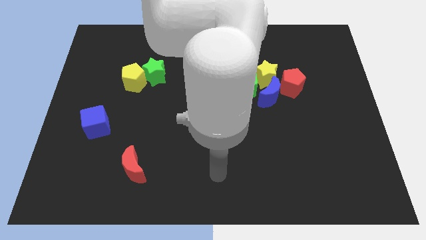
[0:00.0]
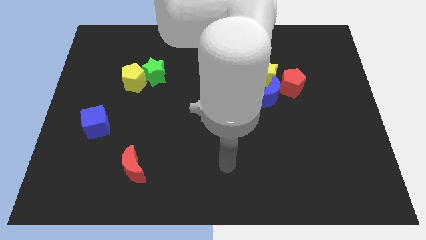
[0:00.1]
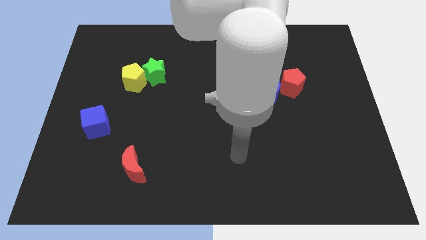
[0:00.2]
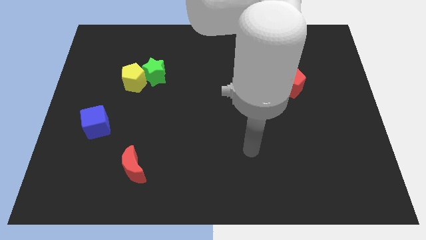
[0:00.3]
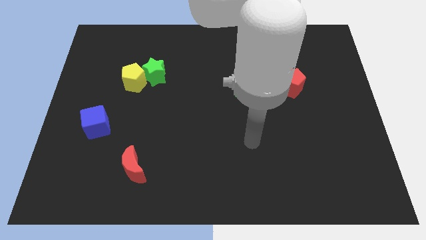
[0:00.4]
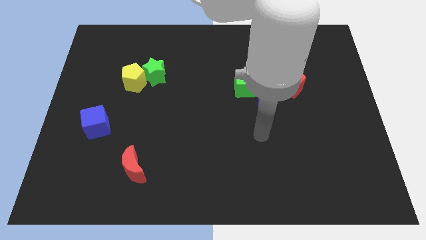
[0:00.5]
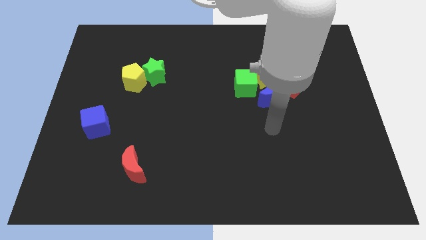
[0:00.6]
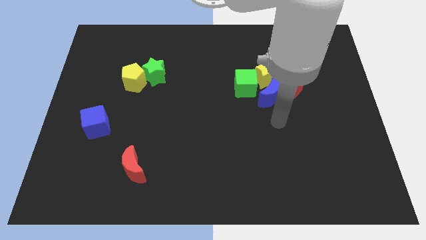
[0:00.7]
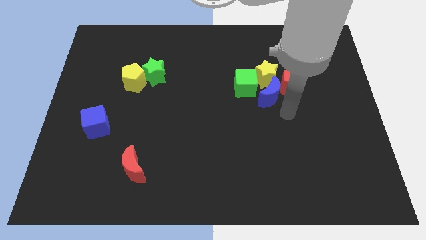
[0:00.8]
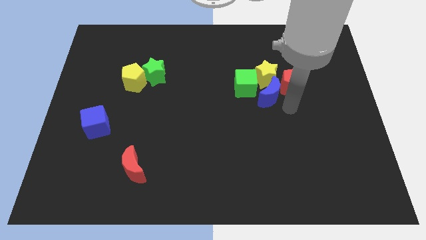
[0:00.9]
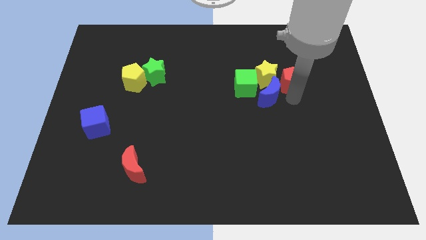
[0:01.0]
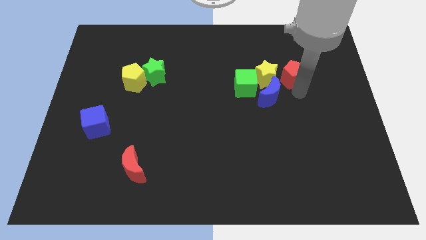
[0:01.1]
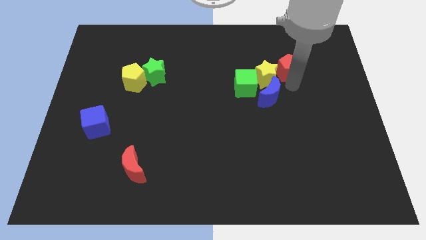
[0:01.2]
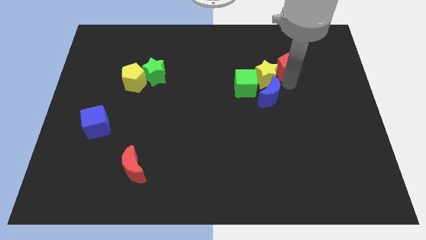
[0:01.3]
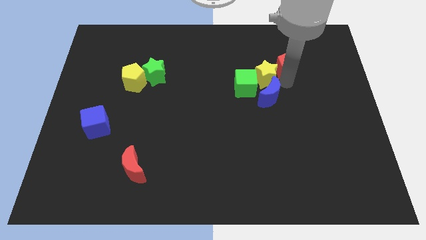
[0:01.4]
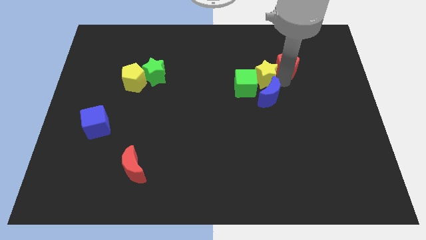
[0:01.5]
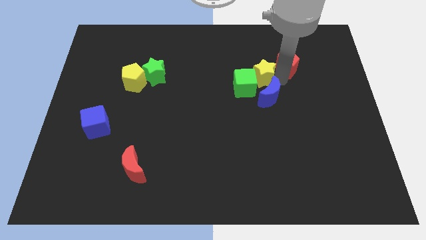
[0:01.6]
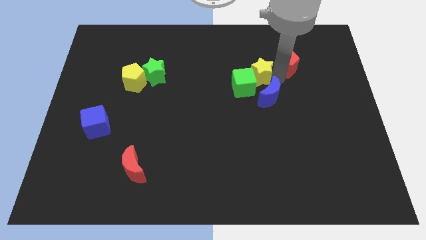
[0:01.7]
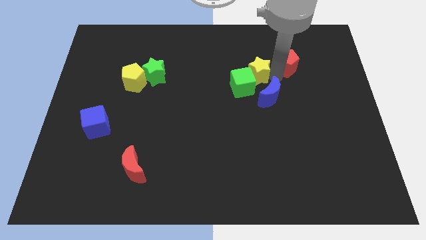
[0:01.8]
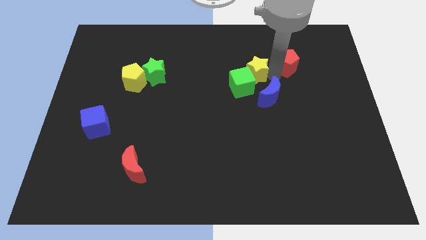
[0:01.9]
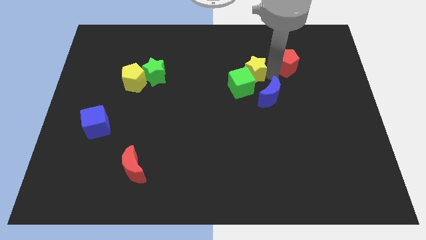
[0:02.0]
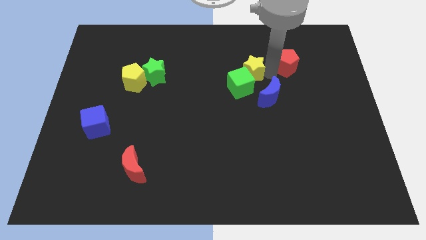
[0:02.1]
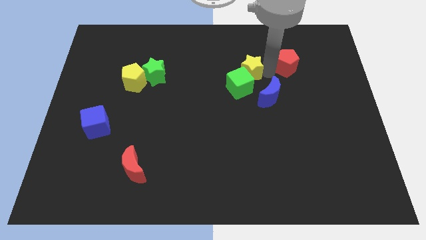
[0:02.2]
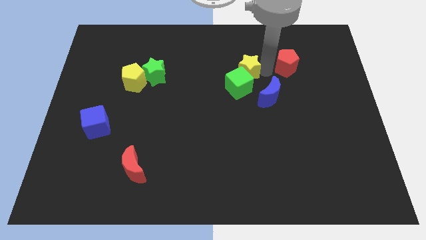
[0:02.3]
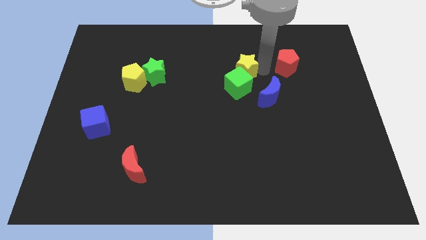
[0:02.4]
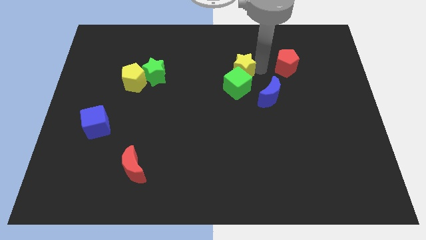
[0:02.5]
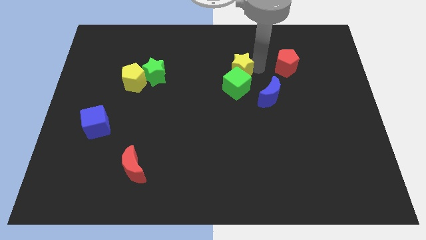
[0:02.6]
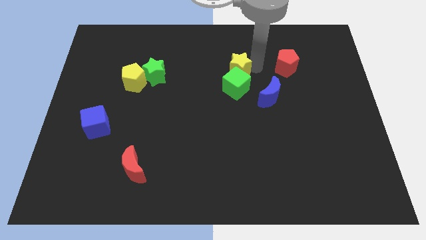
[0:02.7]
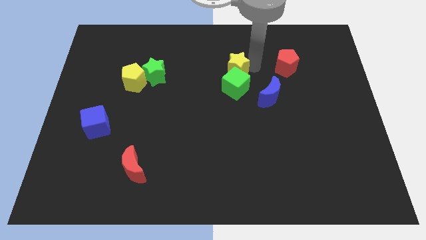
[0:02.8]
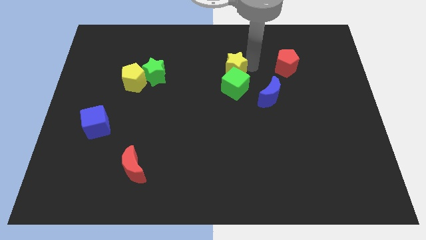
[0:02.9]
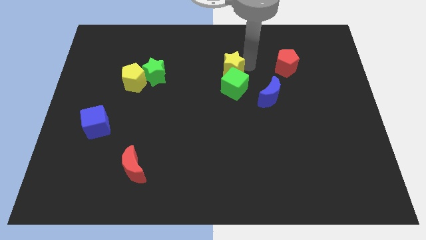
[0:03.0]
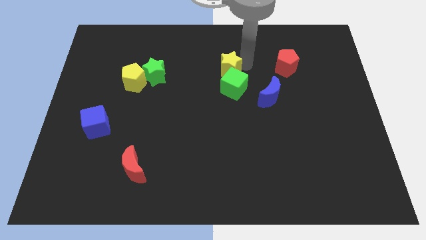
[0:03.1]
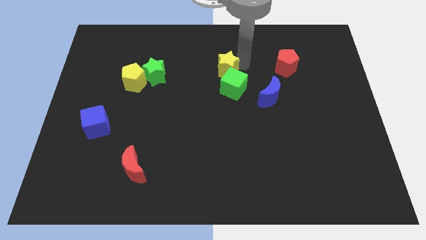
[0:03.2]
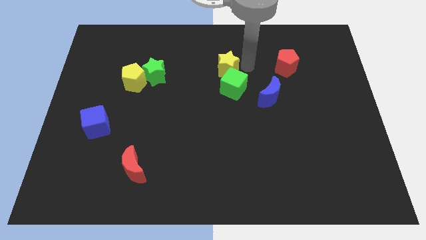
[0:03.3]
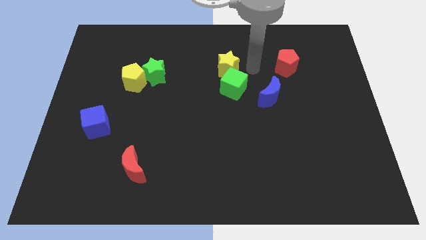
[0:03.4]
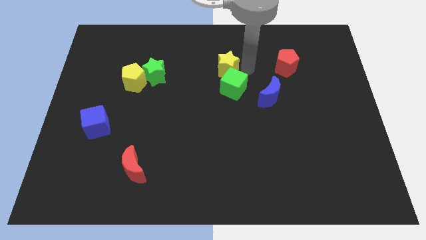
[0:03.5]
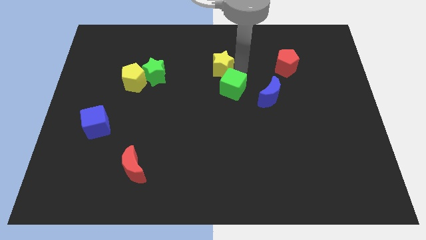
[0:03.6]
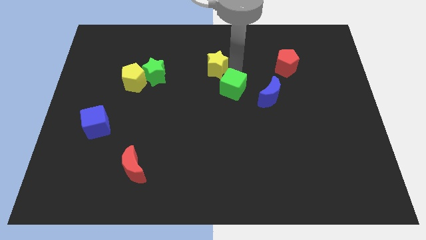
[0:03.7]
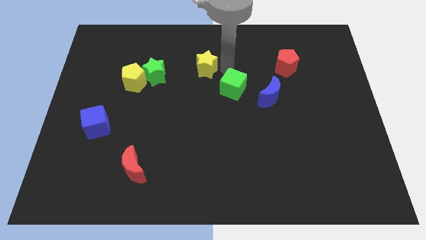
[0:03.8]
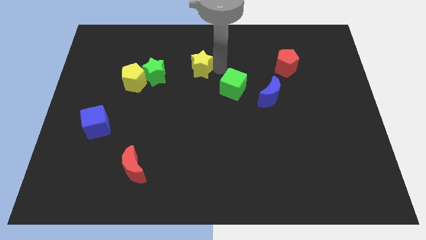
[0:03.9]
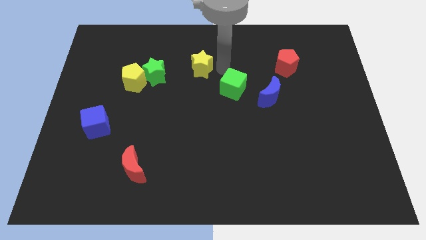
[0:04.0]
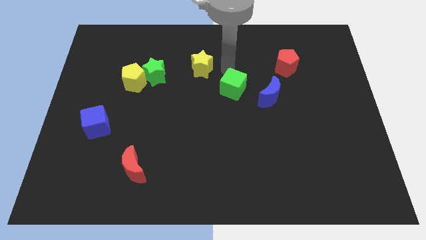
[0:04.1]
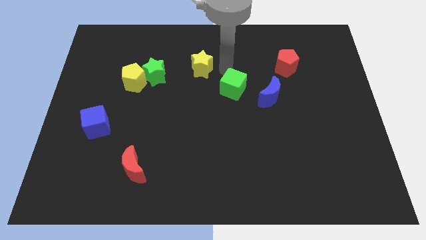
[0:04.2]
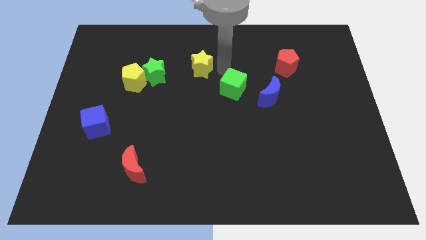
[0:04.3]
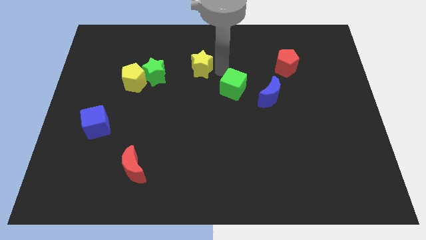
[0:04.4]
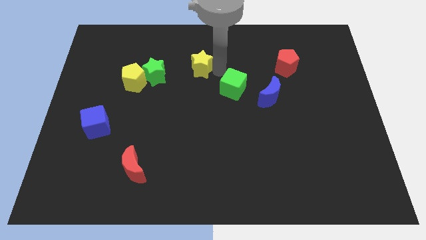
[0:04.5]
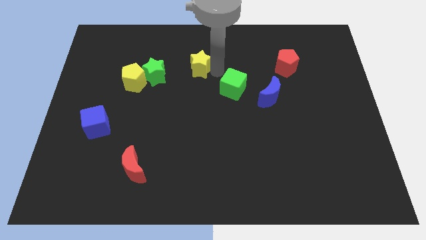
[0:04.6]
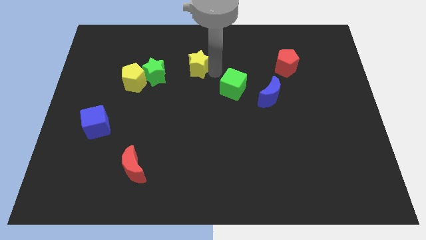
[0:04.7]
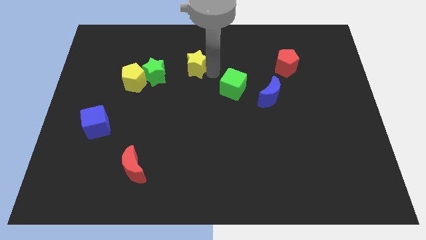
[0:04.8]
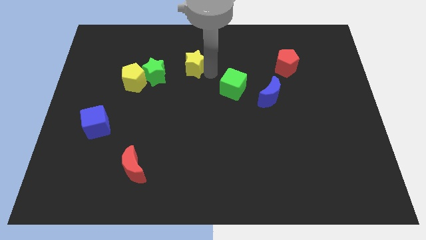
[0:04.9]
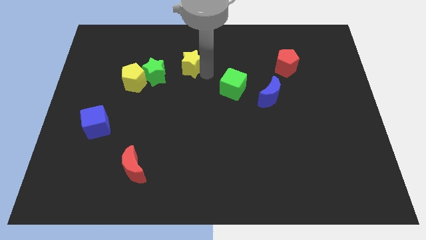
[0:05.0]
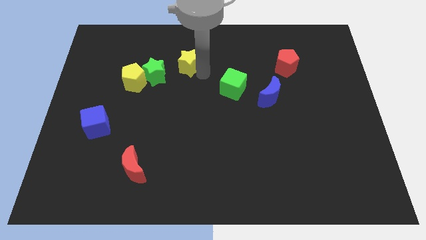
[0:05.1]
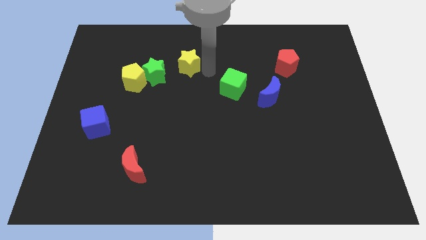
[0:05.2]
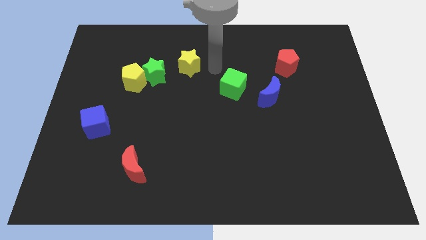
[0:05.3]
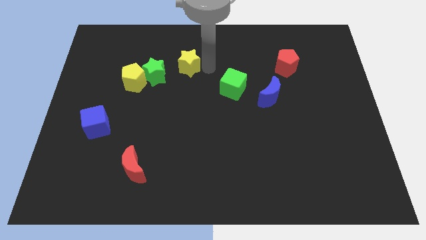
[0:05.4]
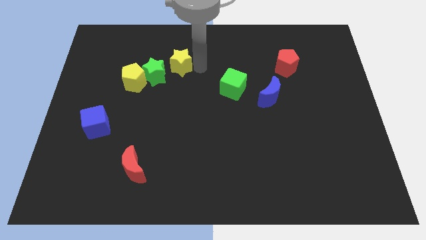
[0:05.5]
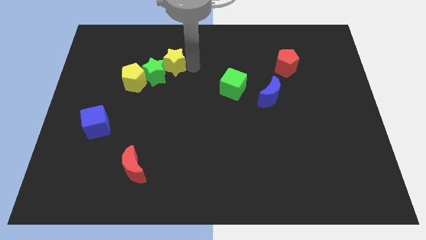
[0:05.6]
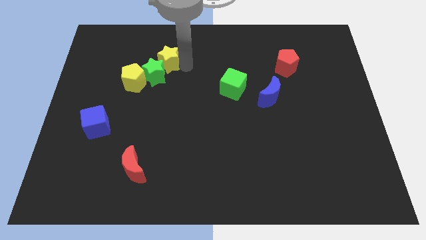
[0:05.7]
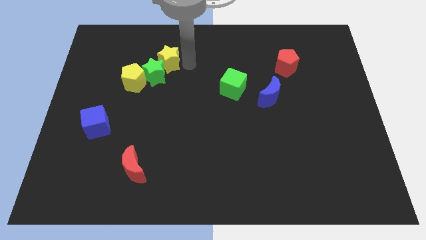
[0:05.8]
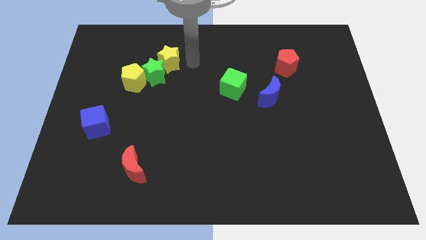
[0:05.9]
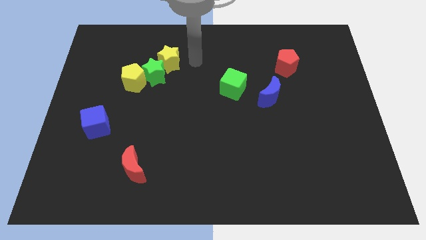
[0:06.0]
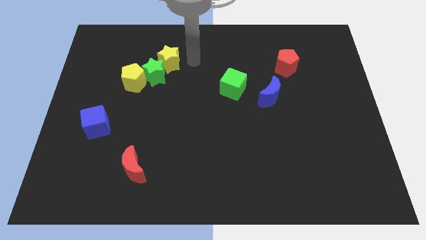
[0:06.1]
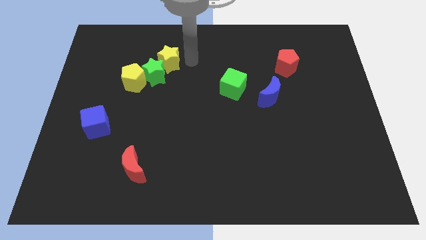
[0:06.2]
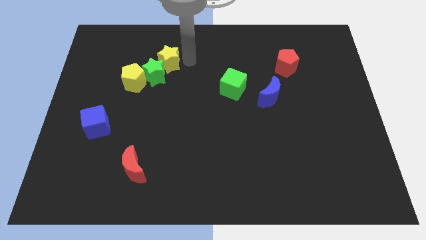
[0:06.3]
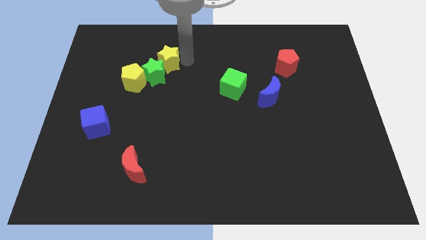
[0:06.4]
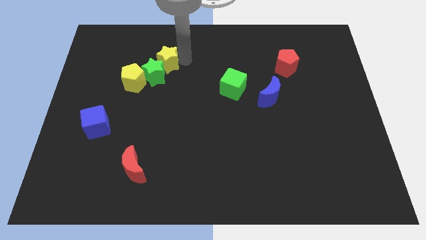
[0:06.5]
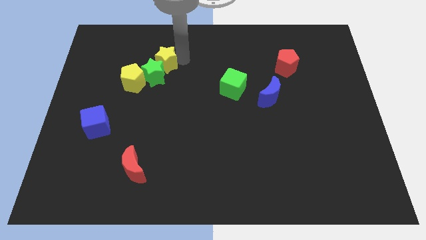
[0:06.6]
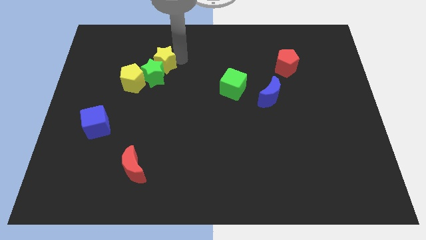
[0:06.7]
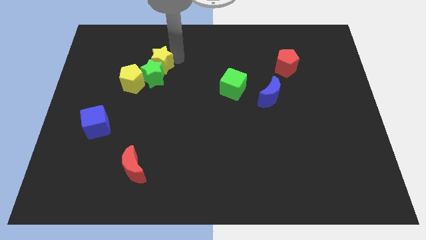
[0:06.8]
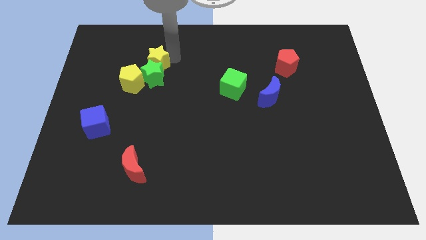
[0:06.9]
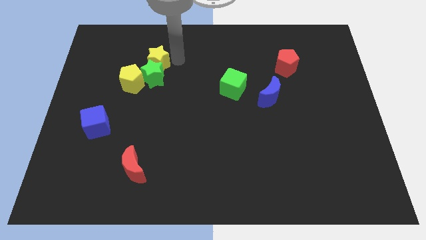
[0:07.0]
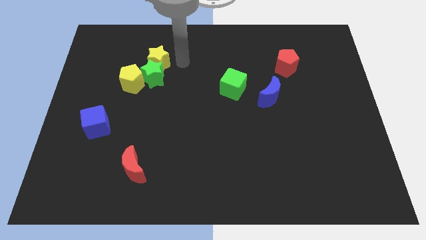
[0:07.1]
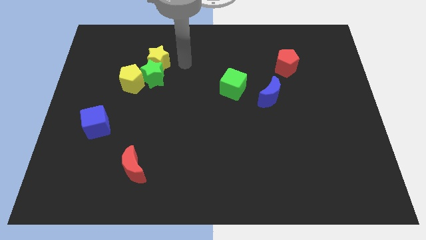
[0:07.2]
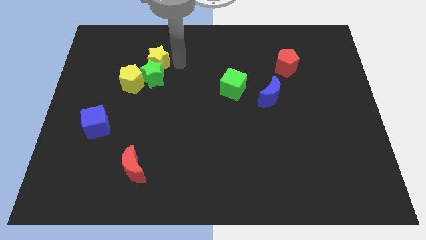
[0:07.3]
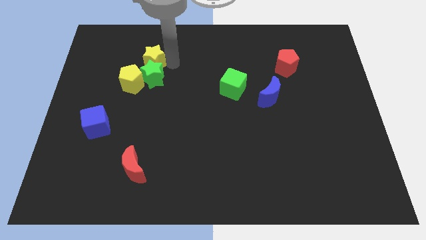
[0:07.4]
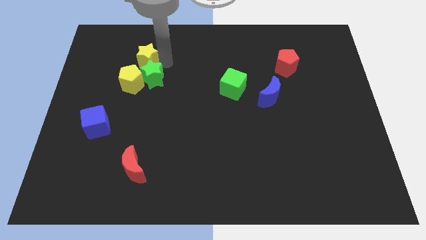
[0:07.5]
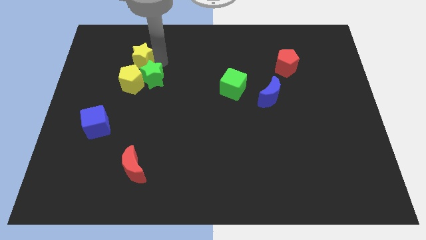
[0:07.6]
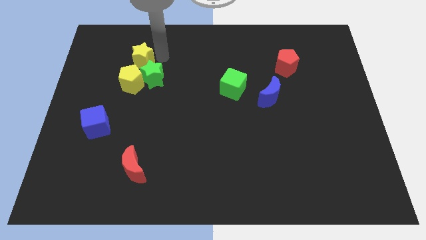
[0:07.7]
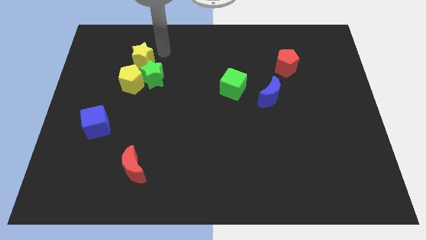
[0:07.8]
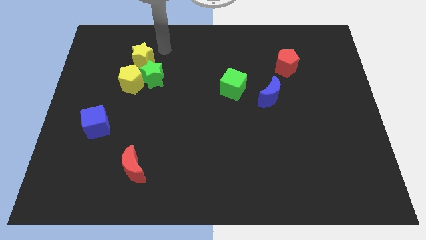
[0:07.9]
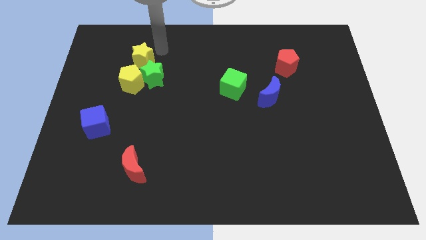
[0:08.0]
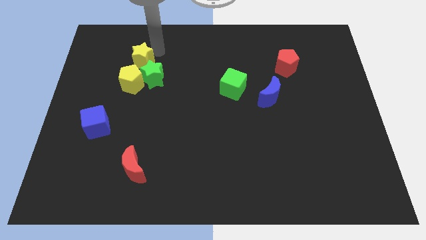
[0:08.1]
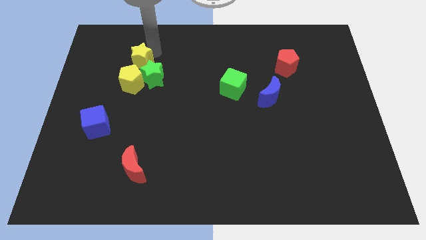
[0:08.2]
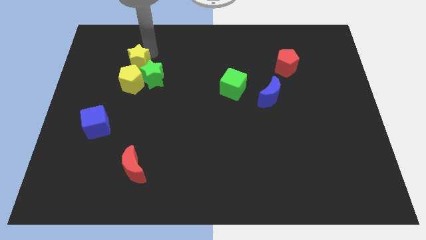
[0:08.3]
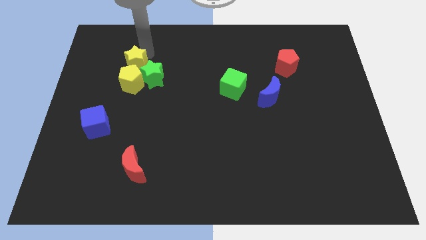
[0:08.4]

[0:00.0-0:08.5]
slide the yellow star to the left of the green star
